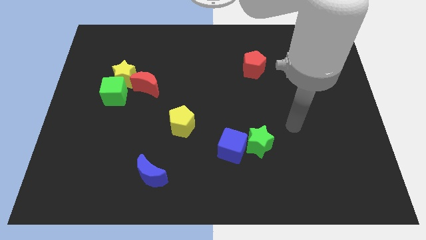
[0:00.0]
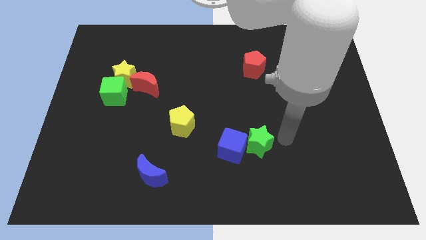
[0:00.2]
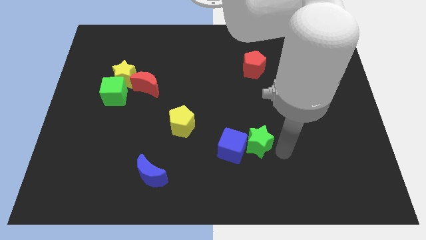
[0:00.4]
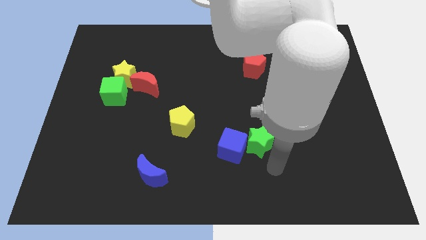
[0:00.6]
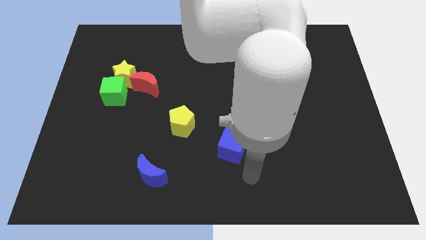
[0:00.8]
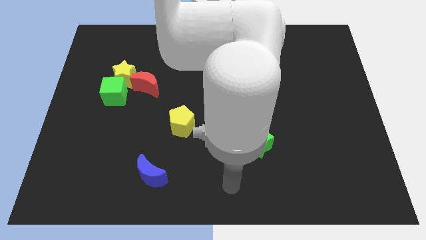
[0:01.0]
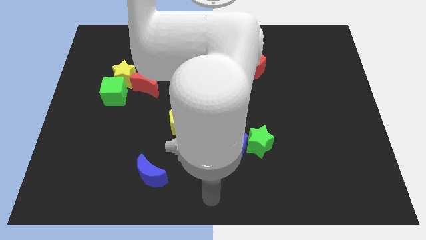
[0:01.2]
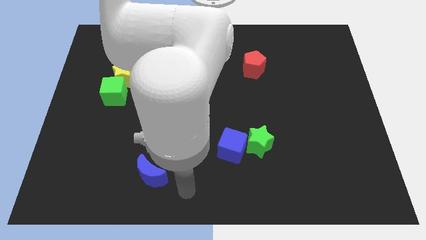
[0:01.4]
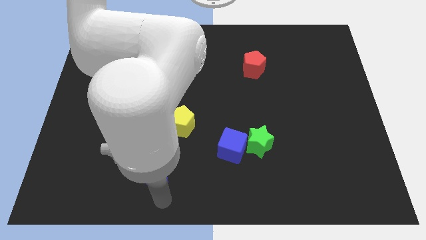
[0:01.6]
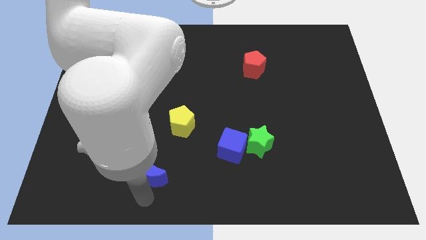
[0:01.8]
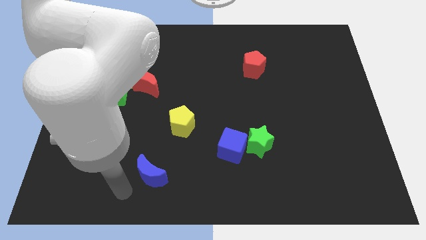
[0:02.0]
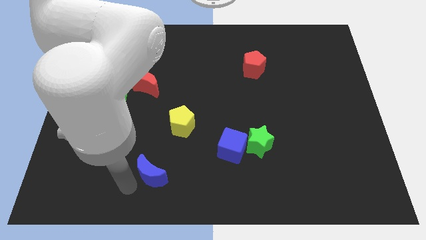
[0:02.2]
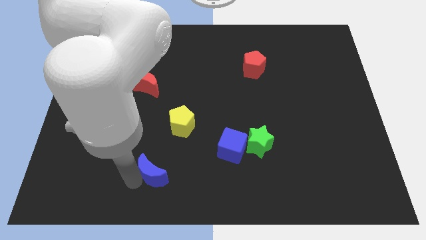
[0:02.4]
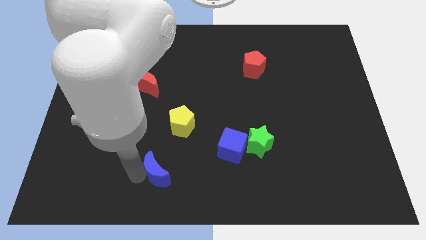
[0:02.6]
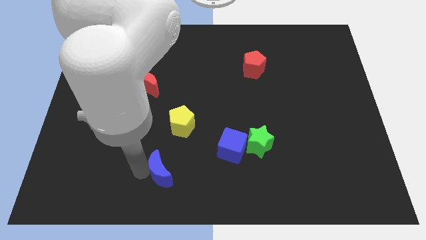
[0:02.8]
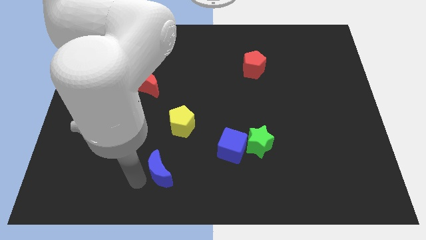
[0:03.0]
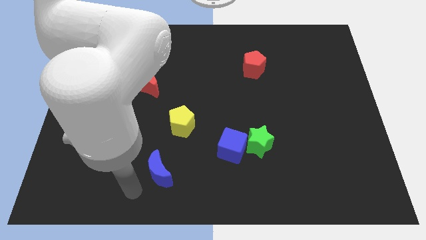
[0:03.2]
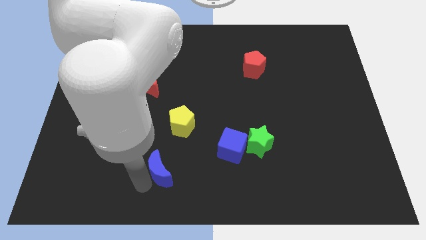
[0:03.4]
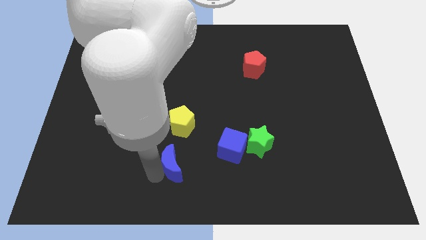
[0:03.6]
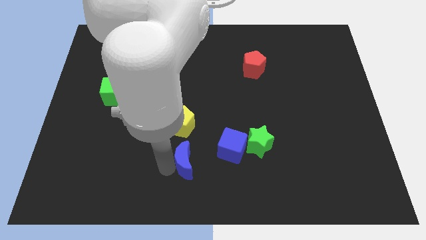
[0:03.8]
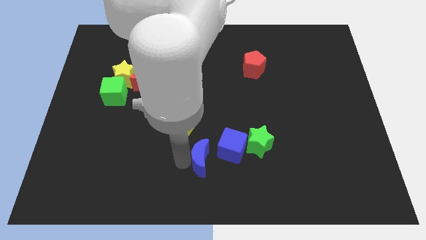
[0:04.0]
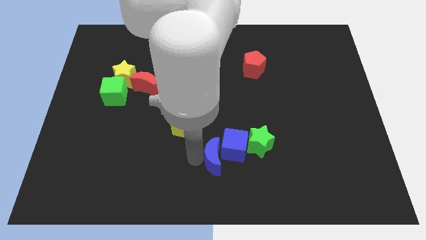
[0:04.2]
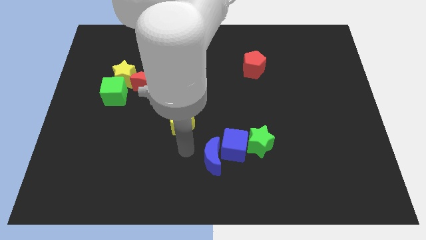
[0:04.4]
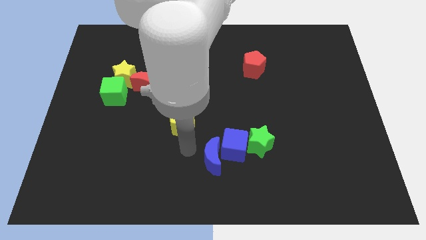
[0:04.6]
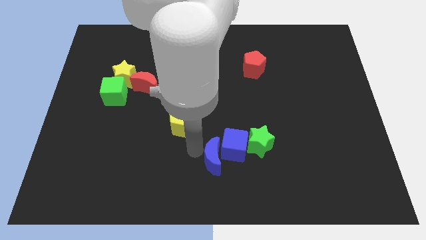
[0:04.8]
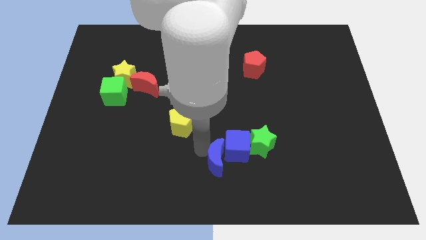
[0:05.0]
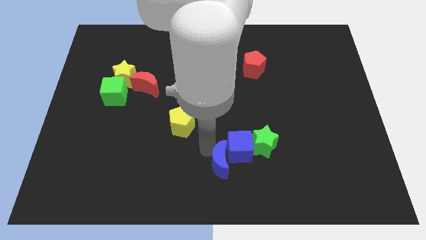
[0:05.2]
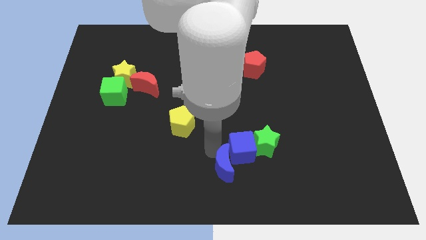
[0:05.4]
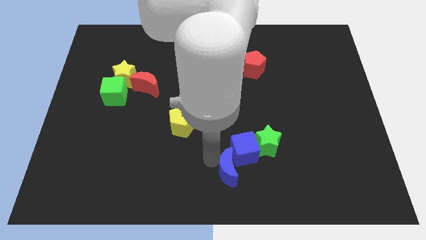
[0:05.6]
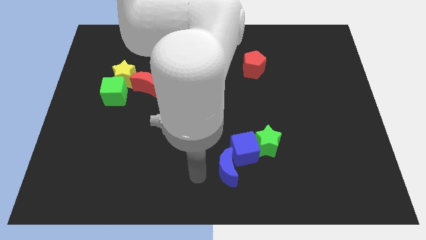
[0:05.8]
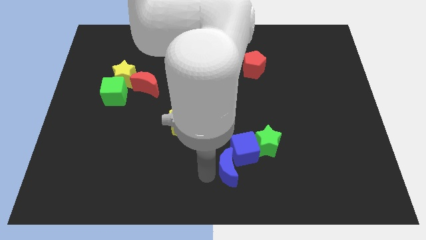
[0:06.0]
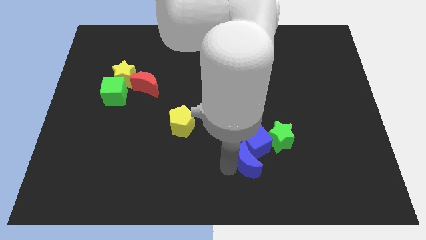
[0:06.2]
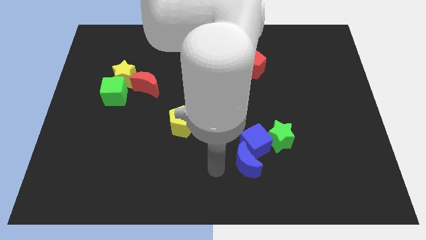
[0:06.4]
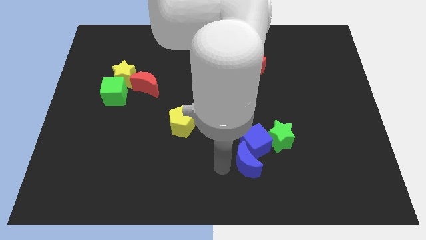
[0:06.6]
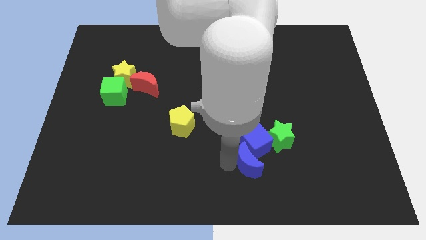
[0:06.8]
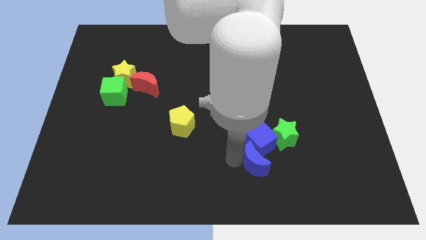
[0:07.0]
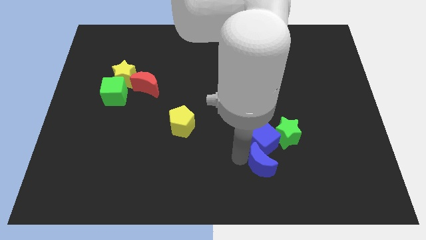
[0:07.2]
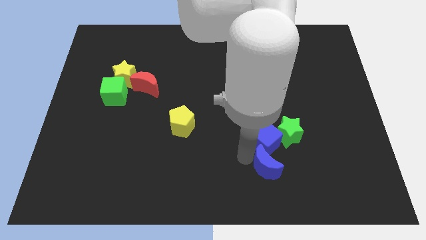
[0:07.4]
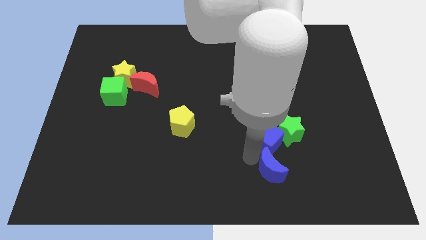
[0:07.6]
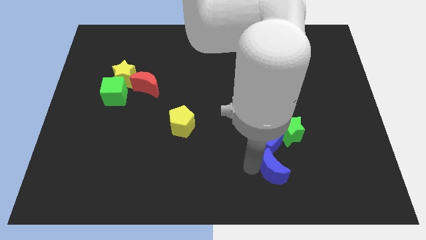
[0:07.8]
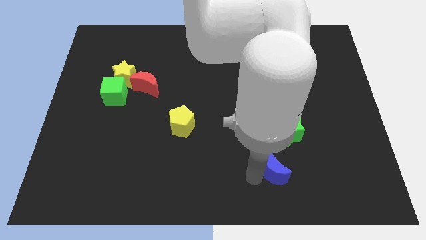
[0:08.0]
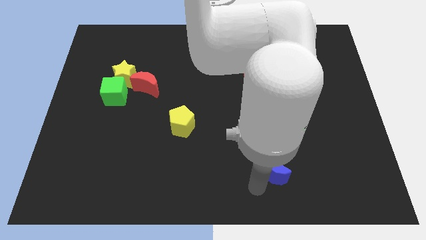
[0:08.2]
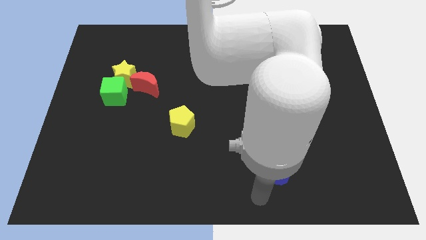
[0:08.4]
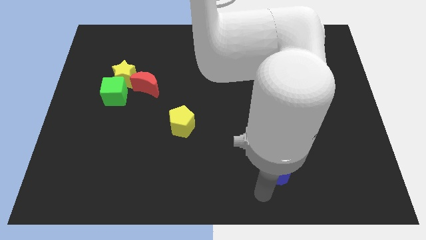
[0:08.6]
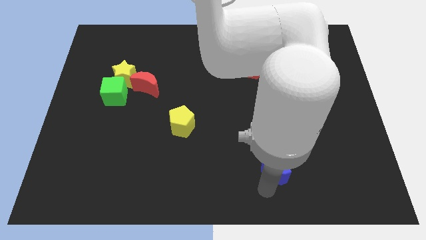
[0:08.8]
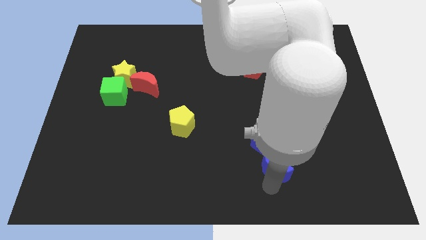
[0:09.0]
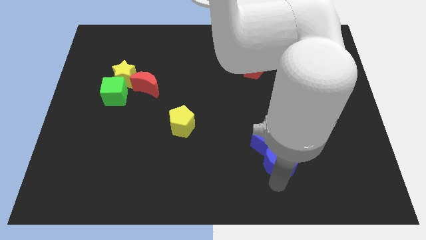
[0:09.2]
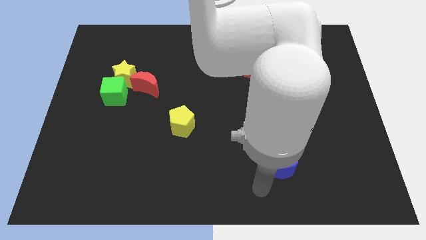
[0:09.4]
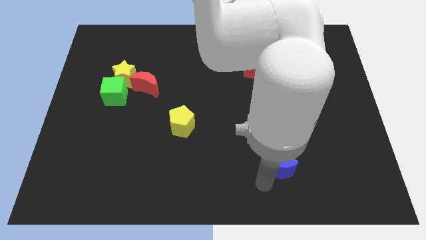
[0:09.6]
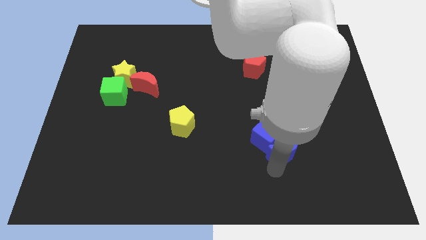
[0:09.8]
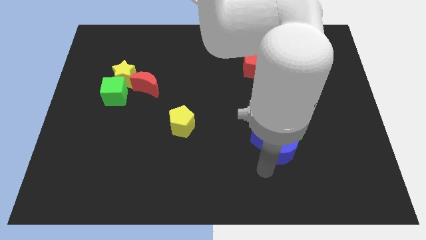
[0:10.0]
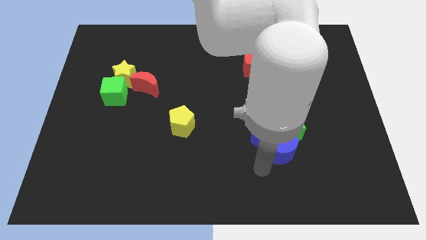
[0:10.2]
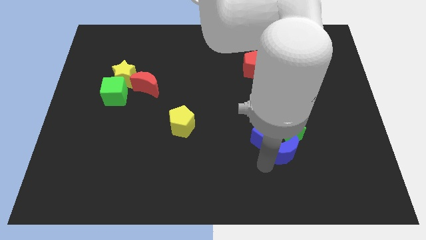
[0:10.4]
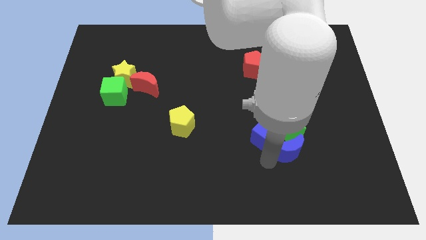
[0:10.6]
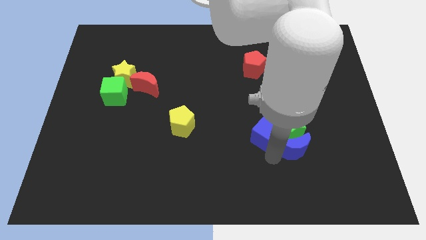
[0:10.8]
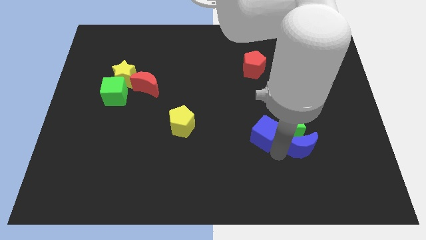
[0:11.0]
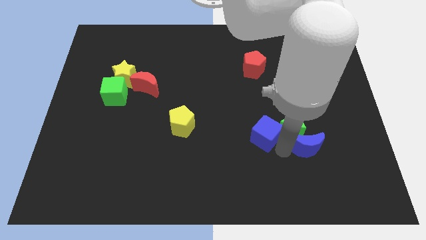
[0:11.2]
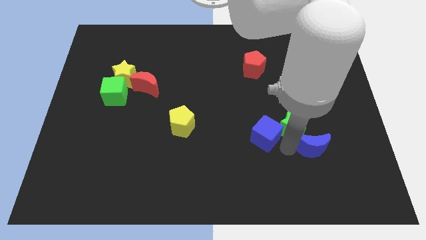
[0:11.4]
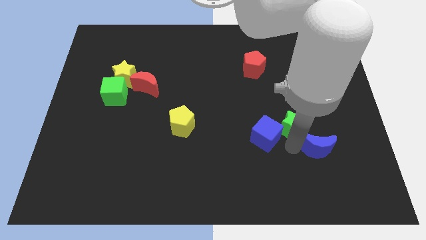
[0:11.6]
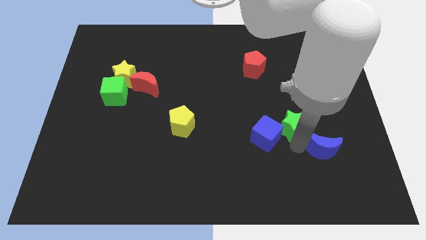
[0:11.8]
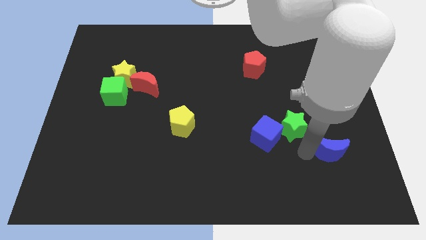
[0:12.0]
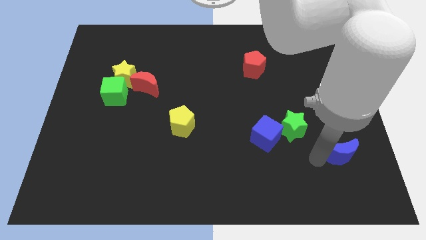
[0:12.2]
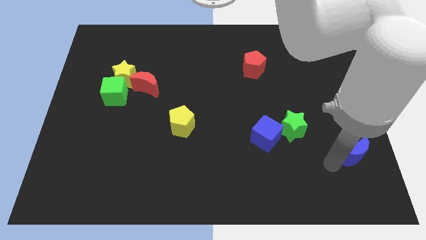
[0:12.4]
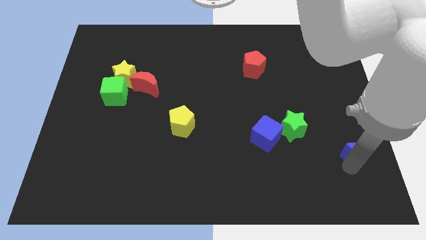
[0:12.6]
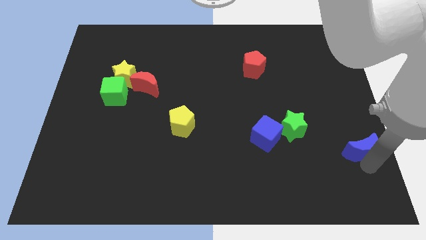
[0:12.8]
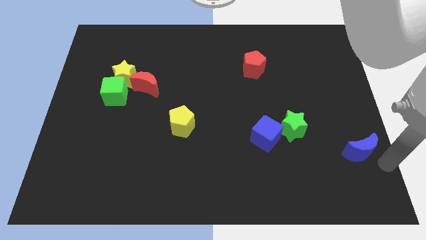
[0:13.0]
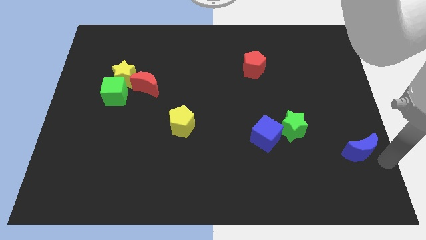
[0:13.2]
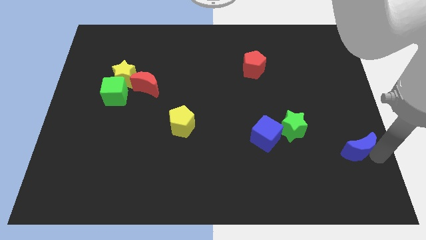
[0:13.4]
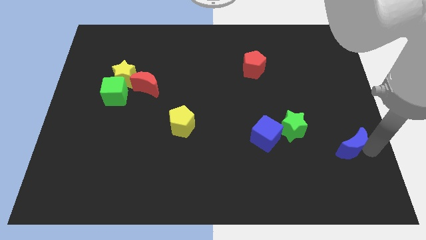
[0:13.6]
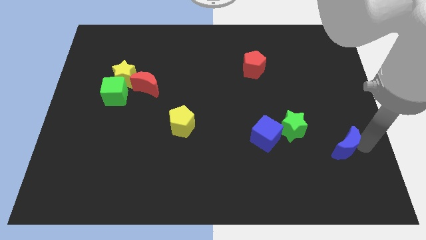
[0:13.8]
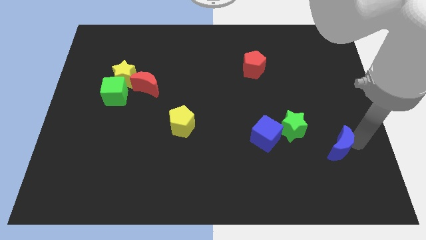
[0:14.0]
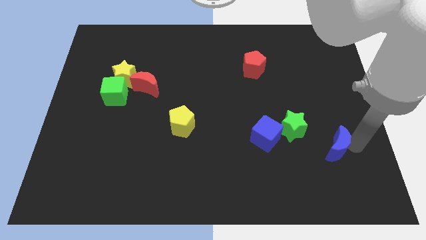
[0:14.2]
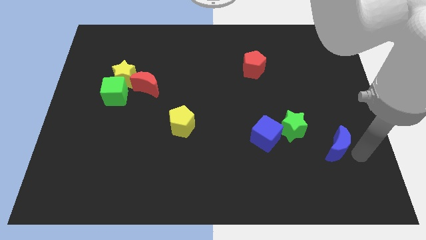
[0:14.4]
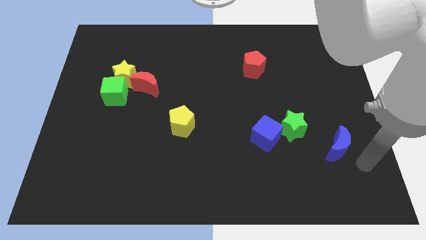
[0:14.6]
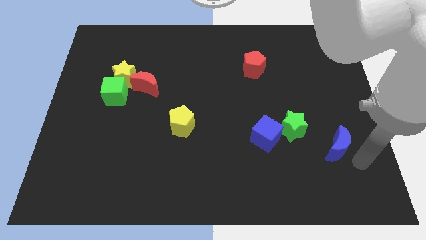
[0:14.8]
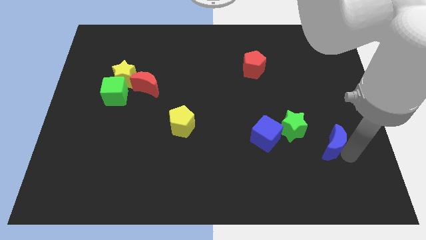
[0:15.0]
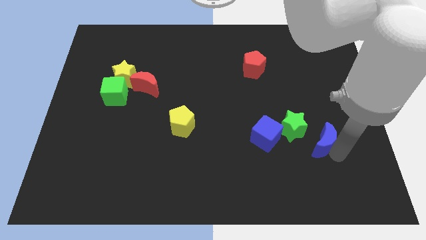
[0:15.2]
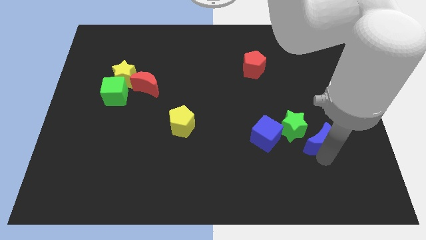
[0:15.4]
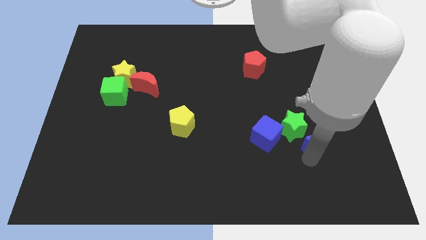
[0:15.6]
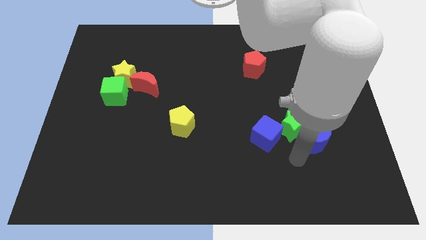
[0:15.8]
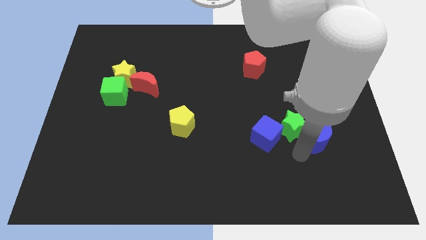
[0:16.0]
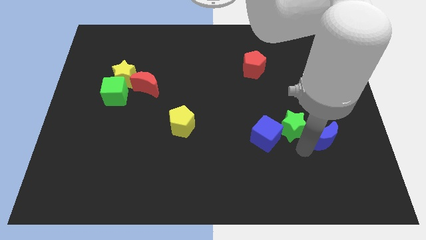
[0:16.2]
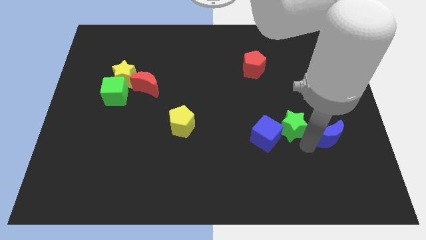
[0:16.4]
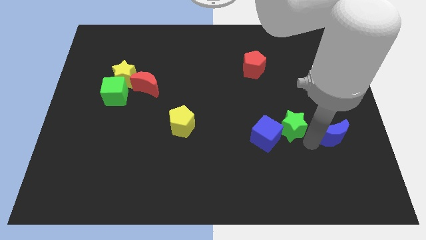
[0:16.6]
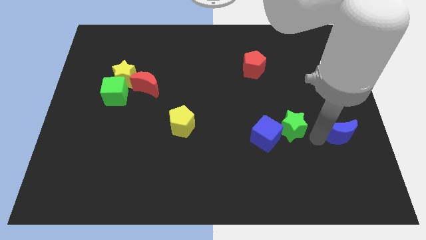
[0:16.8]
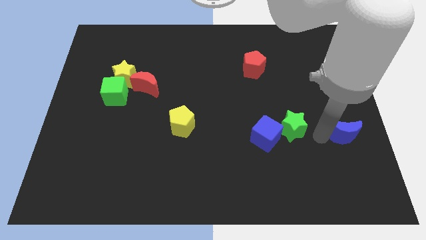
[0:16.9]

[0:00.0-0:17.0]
put the blue moon to the right side of the board
